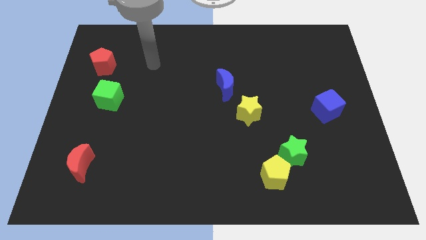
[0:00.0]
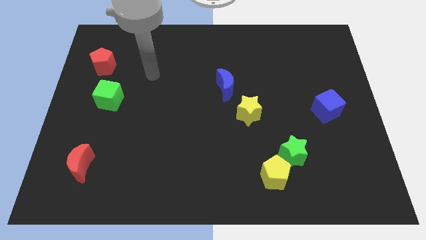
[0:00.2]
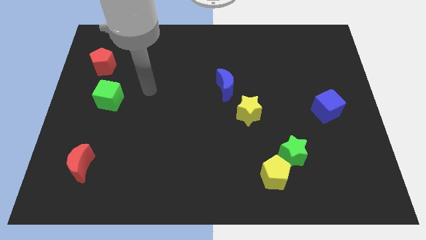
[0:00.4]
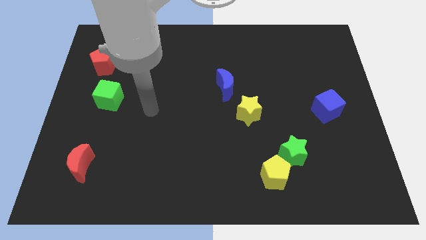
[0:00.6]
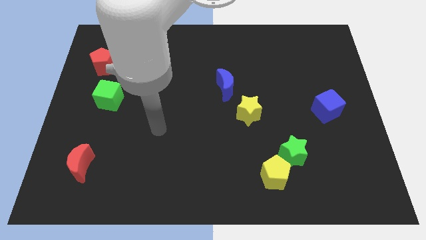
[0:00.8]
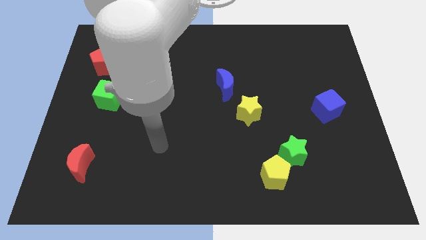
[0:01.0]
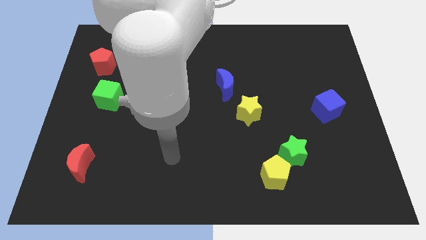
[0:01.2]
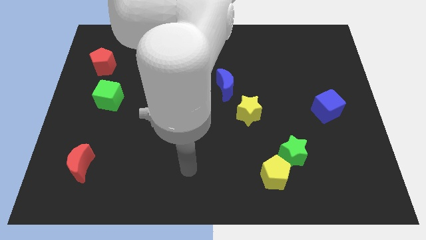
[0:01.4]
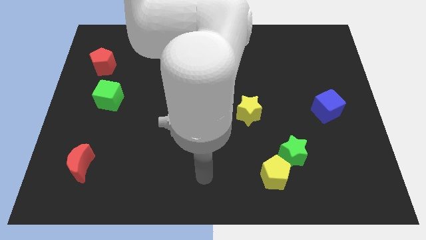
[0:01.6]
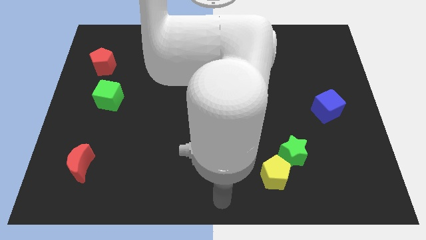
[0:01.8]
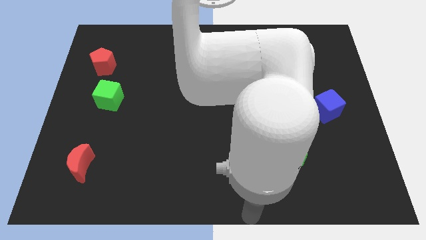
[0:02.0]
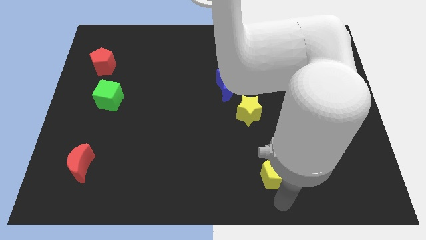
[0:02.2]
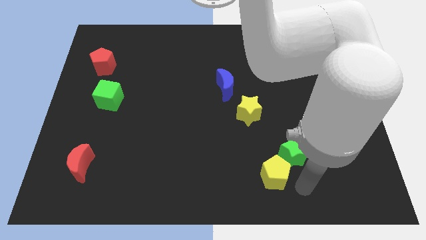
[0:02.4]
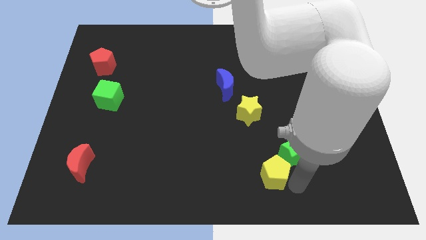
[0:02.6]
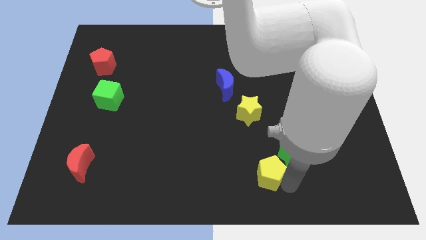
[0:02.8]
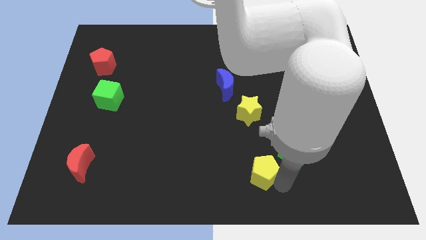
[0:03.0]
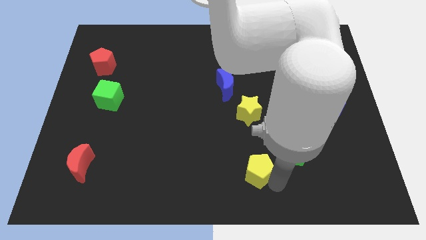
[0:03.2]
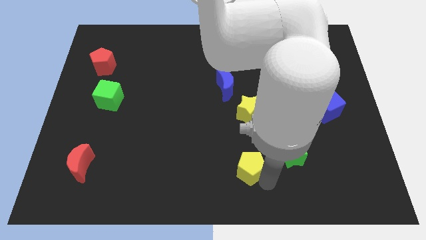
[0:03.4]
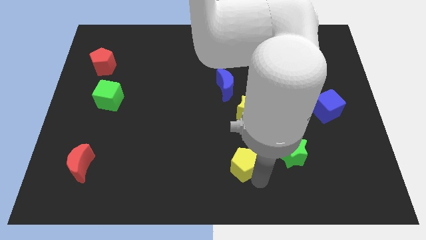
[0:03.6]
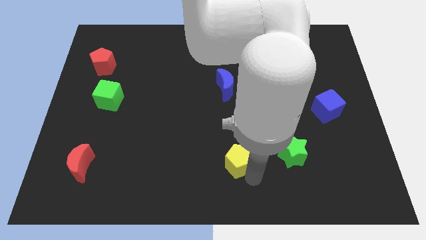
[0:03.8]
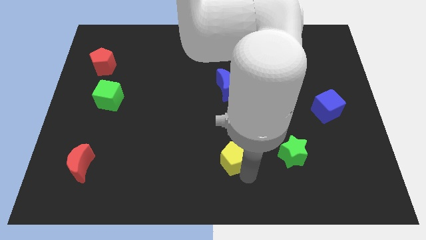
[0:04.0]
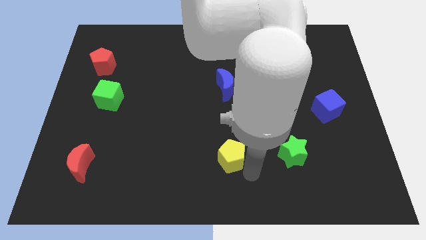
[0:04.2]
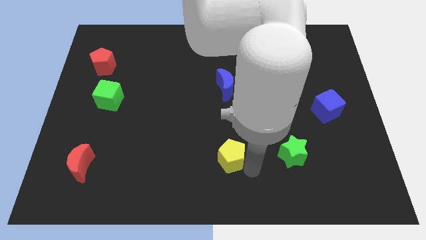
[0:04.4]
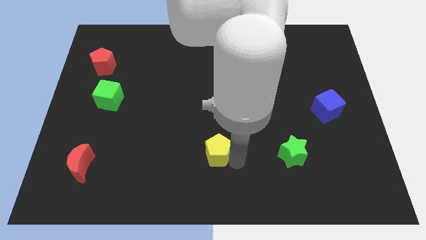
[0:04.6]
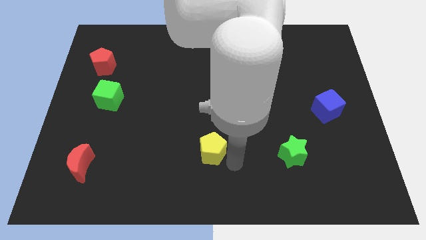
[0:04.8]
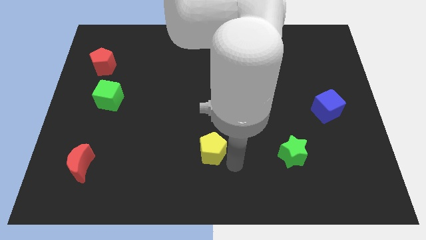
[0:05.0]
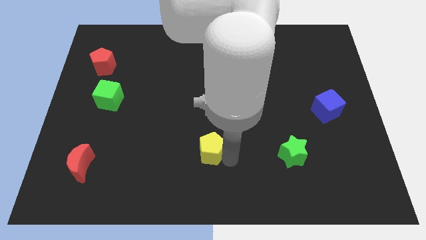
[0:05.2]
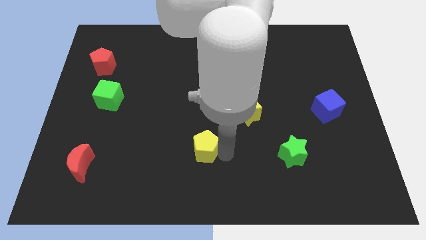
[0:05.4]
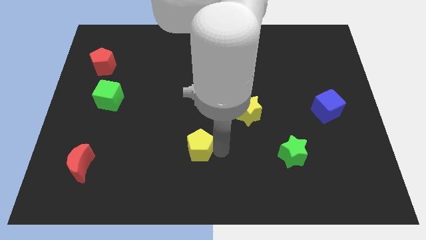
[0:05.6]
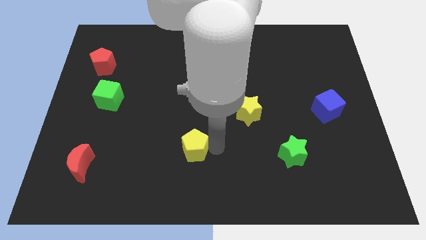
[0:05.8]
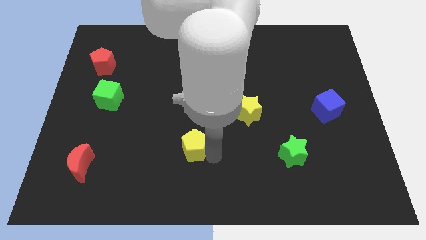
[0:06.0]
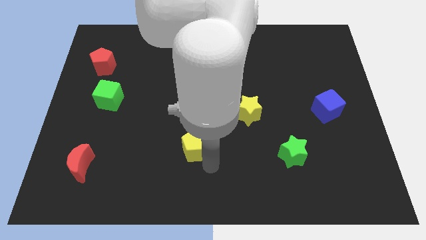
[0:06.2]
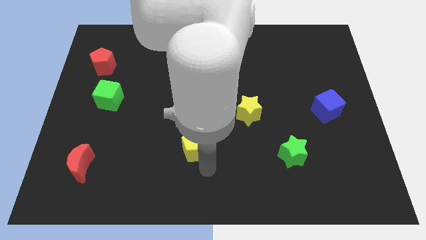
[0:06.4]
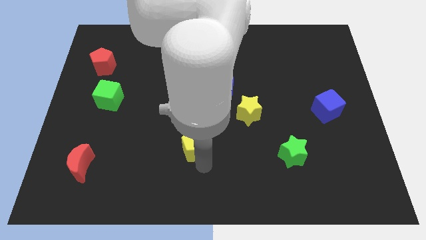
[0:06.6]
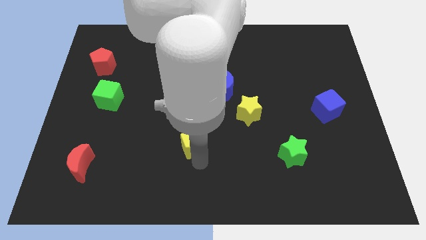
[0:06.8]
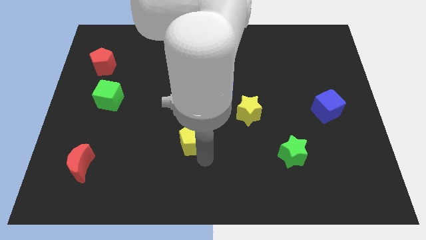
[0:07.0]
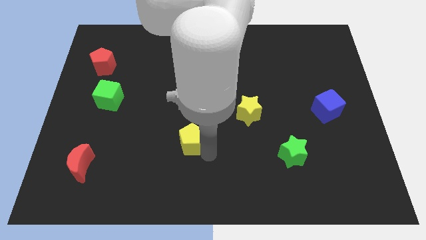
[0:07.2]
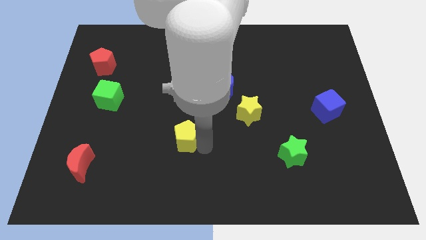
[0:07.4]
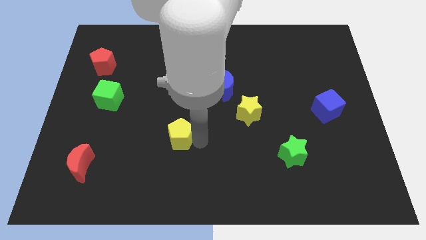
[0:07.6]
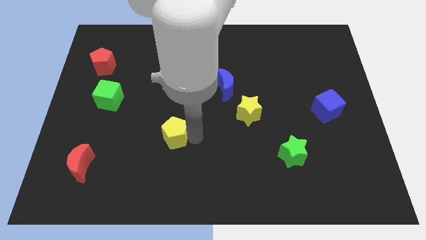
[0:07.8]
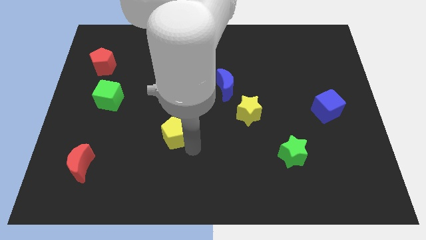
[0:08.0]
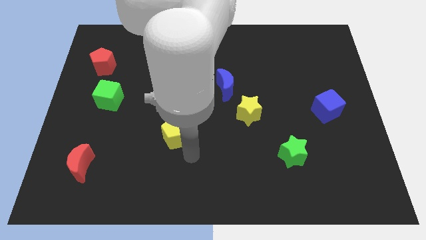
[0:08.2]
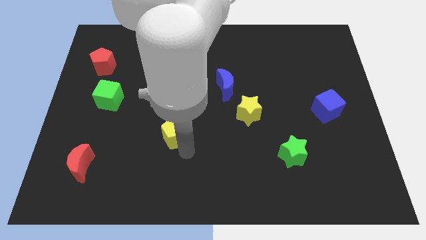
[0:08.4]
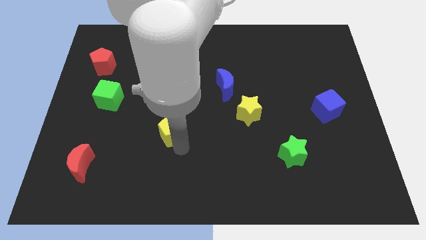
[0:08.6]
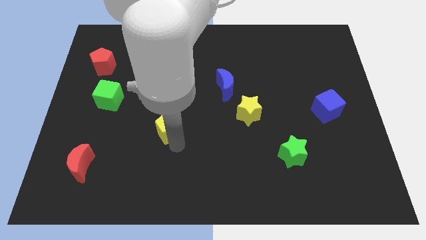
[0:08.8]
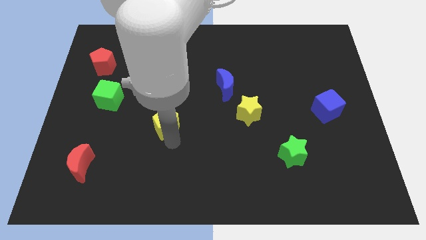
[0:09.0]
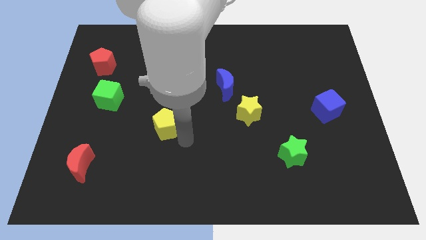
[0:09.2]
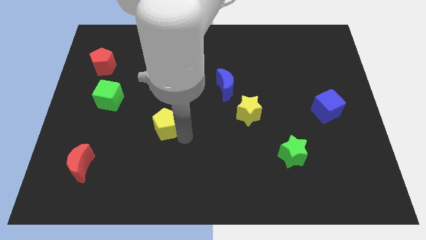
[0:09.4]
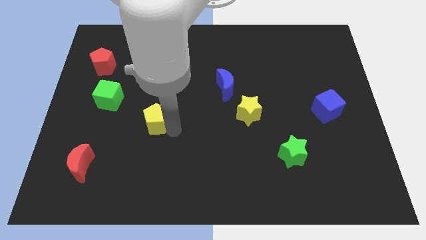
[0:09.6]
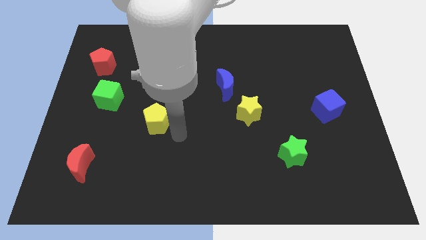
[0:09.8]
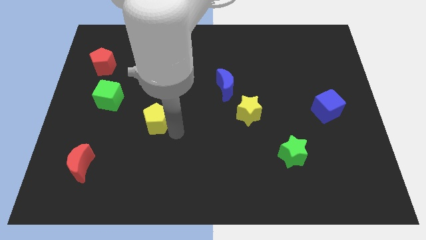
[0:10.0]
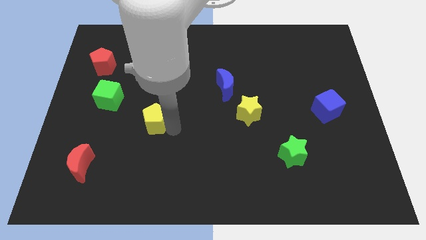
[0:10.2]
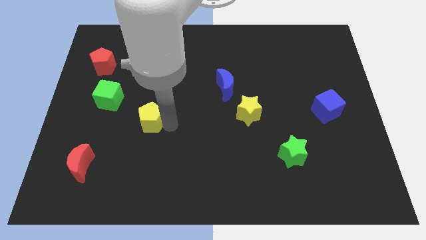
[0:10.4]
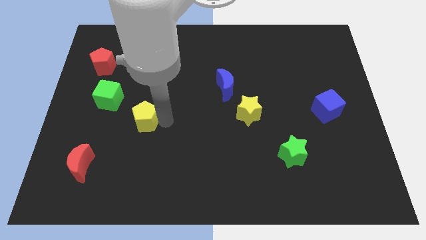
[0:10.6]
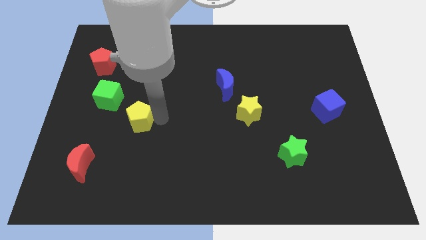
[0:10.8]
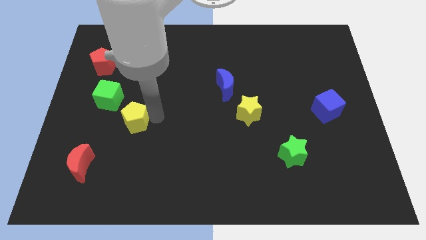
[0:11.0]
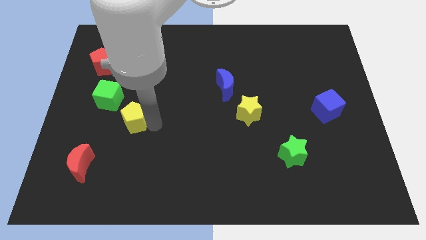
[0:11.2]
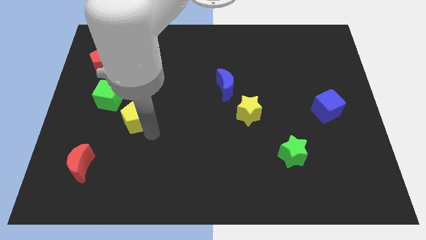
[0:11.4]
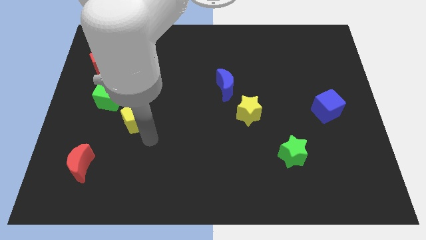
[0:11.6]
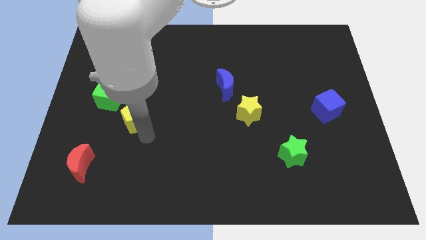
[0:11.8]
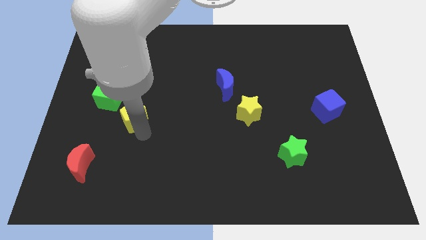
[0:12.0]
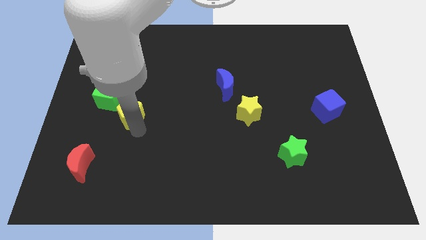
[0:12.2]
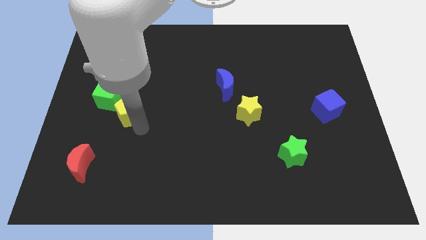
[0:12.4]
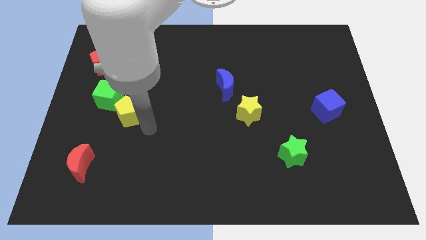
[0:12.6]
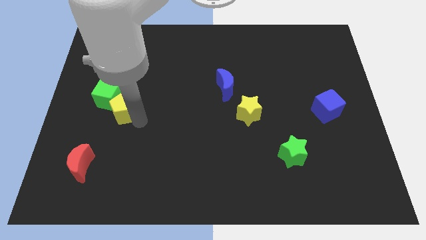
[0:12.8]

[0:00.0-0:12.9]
move the yellow pentagon to the green cube

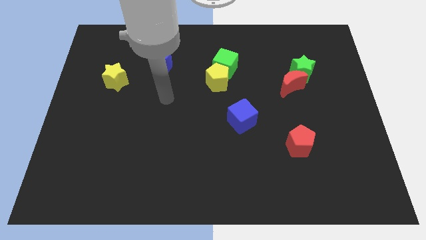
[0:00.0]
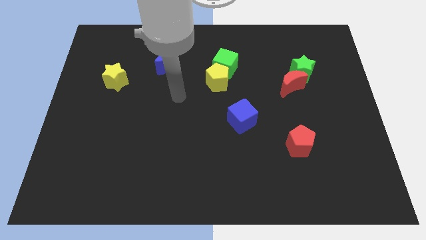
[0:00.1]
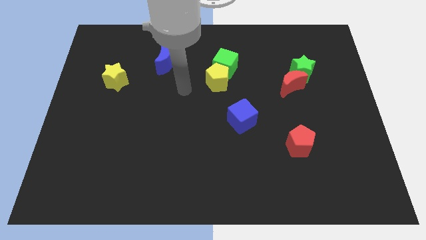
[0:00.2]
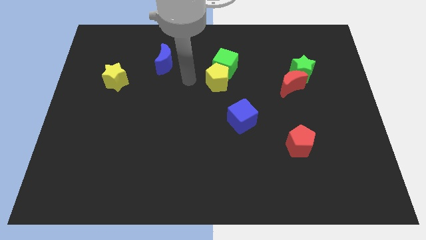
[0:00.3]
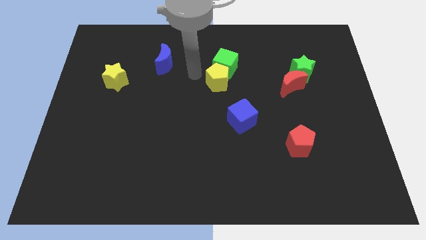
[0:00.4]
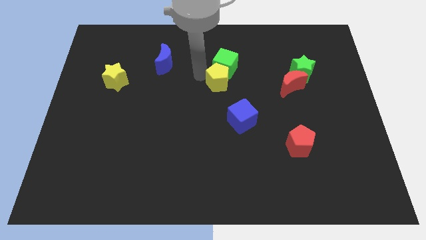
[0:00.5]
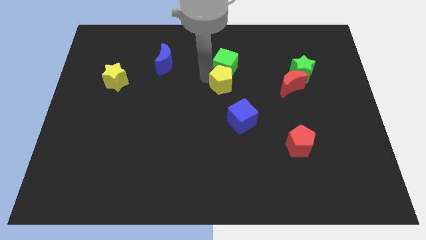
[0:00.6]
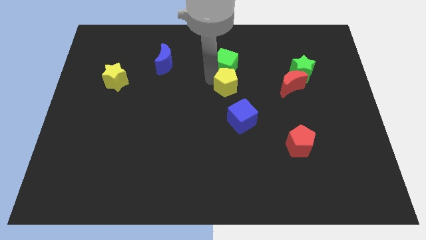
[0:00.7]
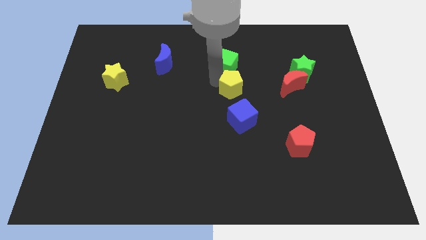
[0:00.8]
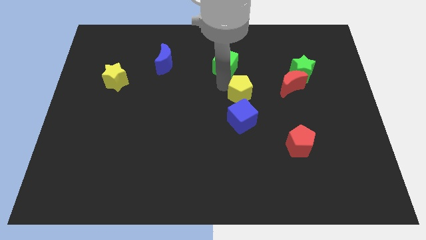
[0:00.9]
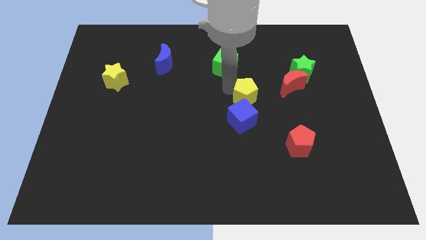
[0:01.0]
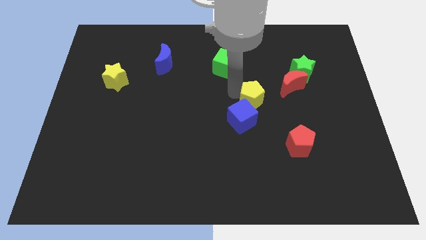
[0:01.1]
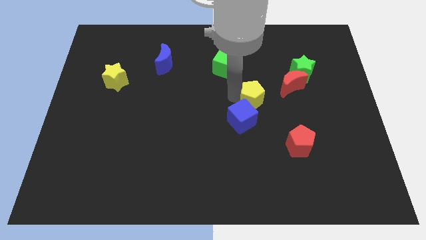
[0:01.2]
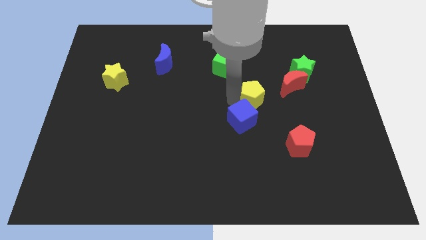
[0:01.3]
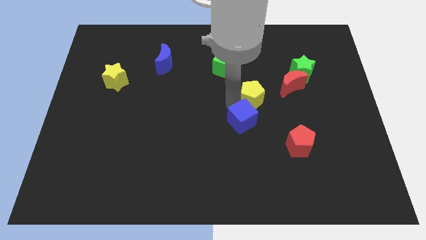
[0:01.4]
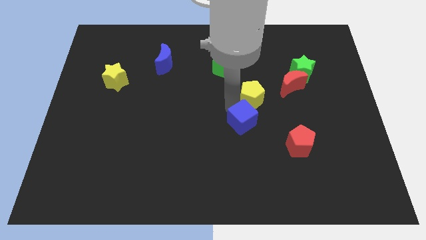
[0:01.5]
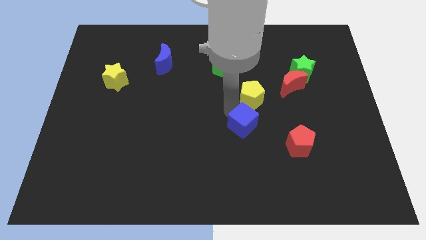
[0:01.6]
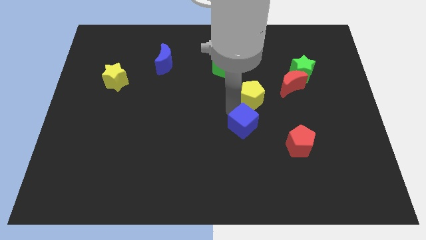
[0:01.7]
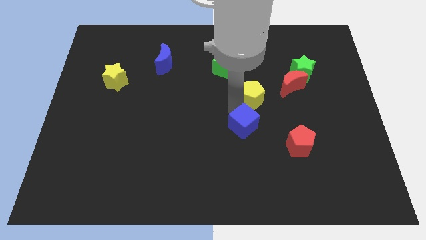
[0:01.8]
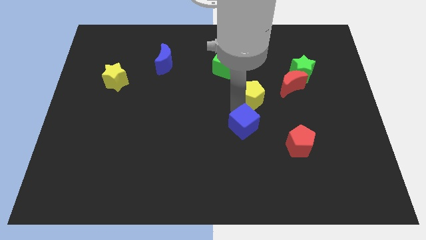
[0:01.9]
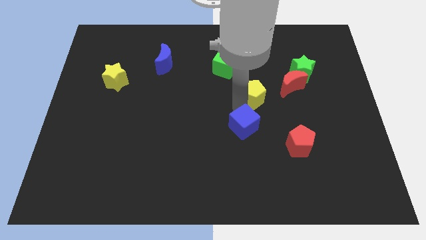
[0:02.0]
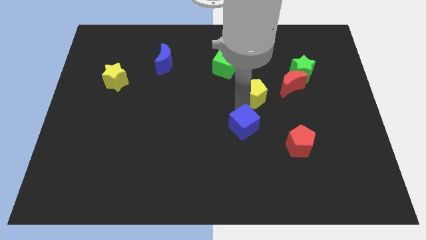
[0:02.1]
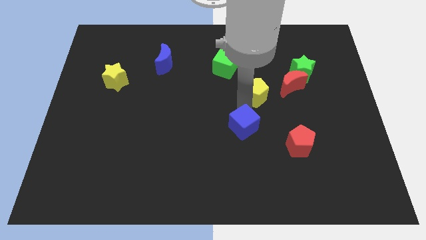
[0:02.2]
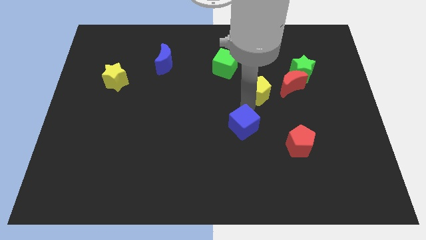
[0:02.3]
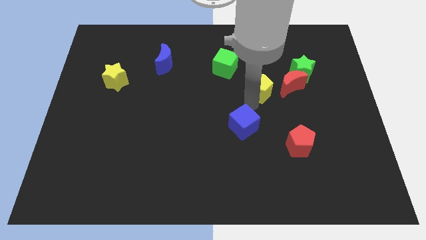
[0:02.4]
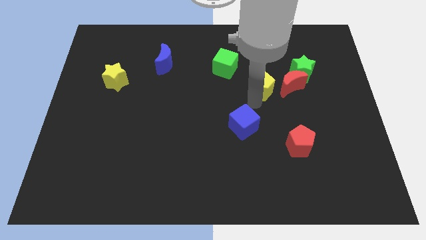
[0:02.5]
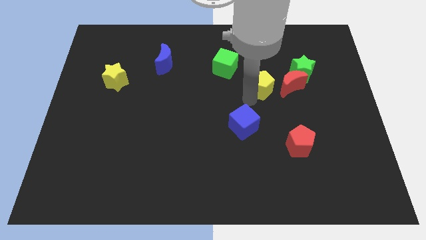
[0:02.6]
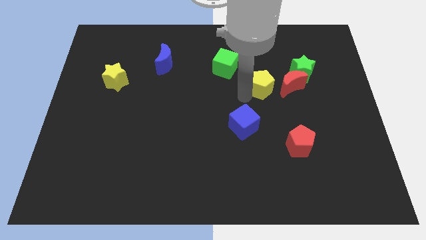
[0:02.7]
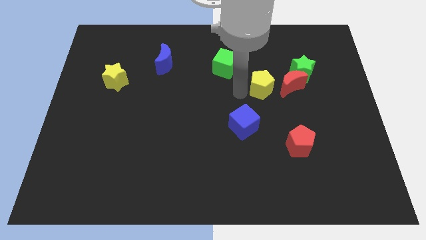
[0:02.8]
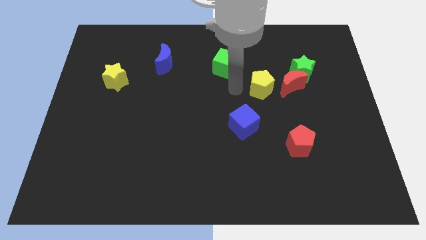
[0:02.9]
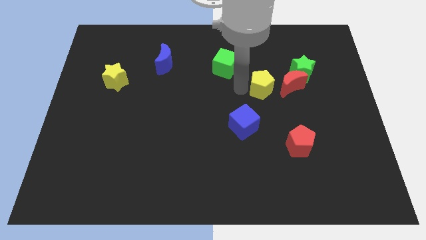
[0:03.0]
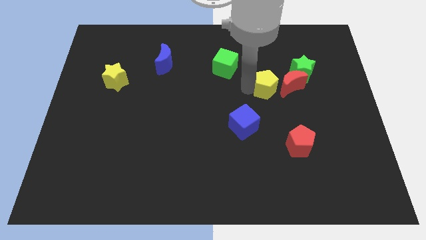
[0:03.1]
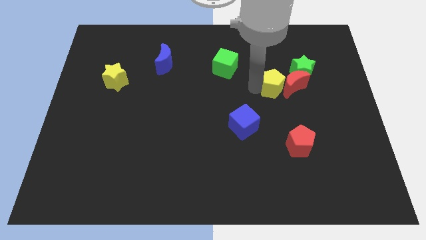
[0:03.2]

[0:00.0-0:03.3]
move the yellow pentagon close to the red moon
